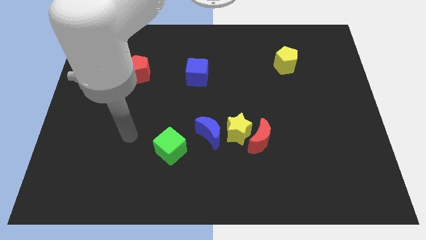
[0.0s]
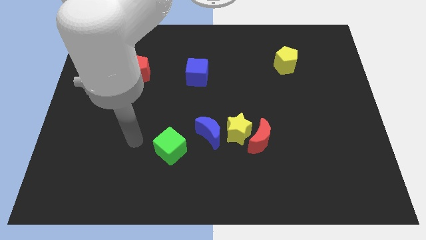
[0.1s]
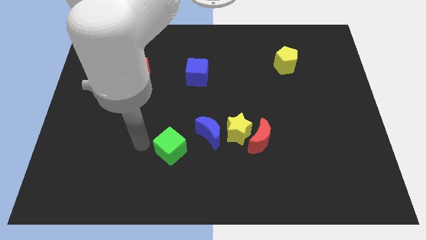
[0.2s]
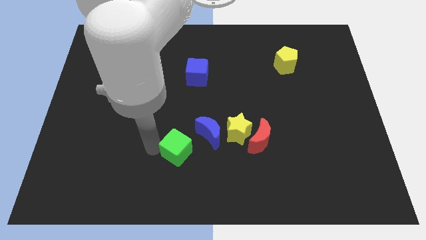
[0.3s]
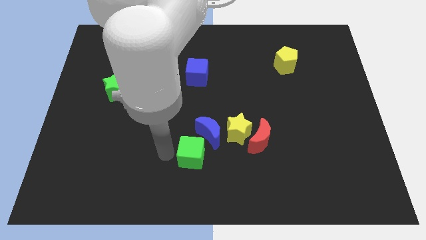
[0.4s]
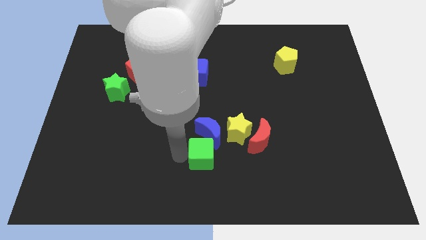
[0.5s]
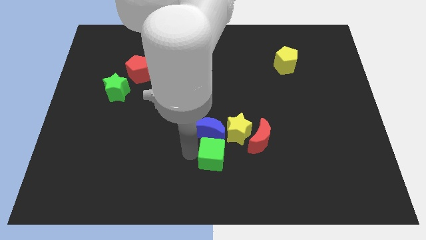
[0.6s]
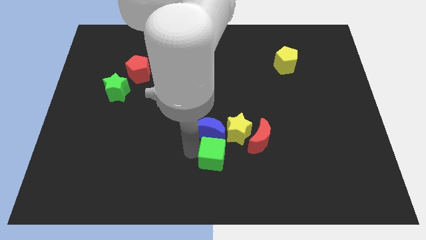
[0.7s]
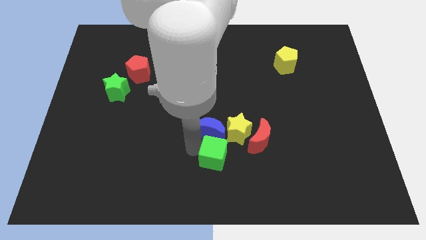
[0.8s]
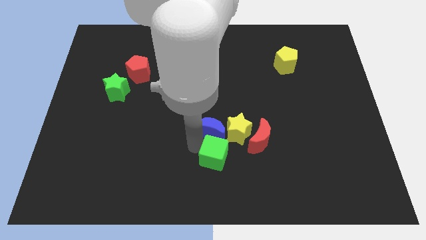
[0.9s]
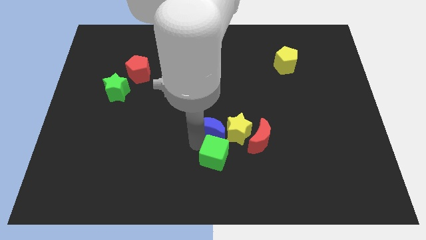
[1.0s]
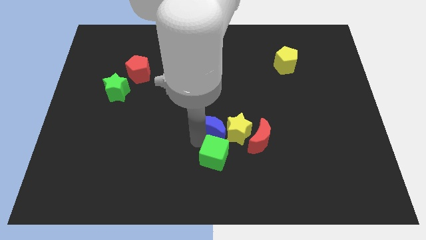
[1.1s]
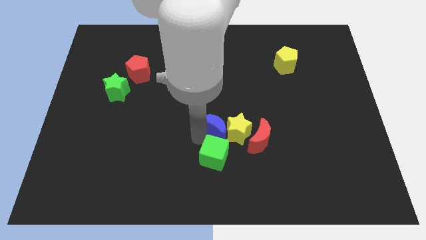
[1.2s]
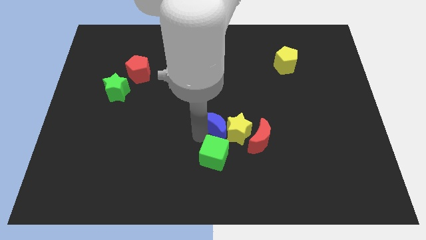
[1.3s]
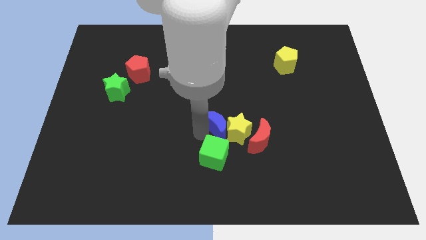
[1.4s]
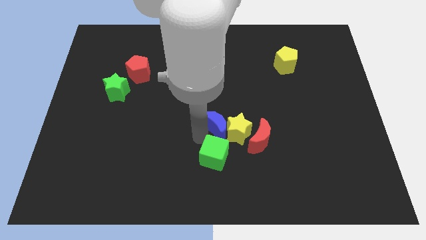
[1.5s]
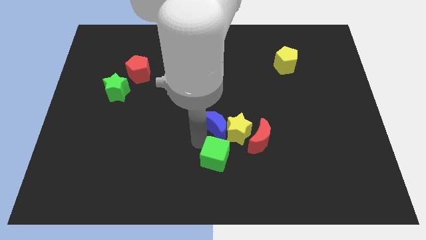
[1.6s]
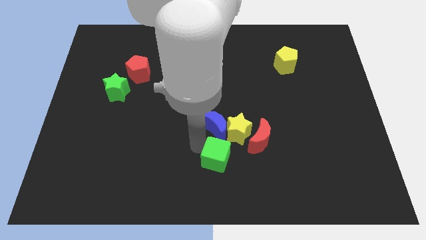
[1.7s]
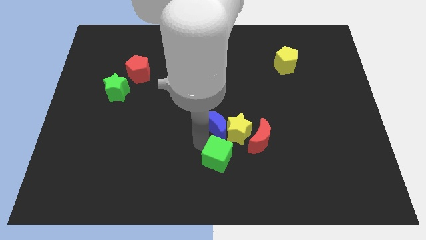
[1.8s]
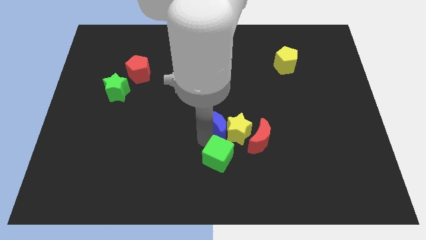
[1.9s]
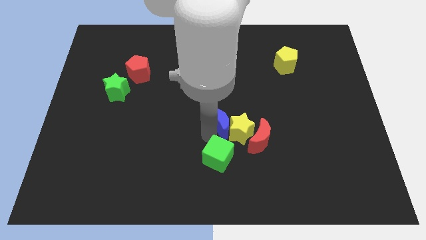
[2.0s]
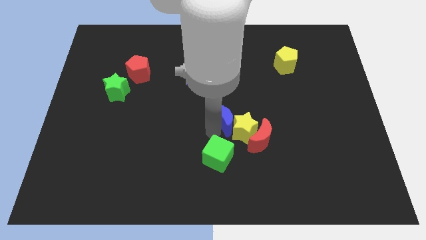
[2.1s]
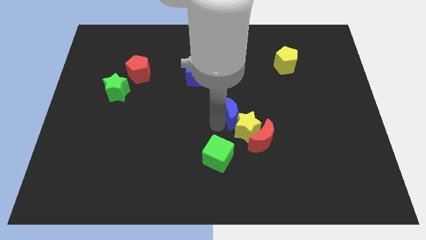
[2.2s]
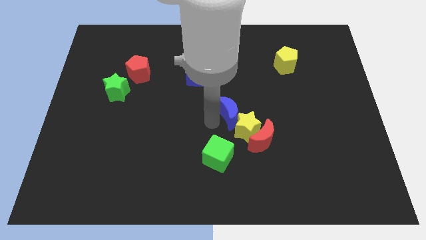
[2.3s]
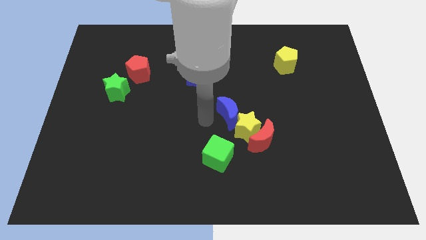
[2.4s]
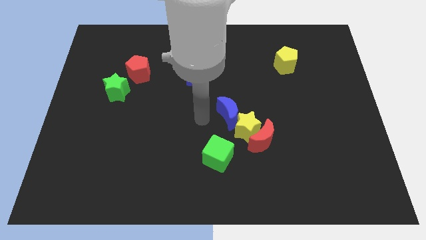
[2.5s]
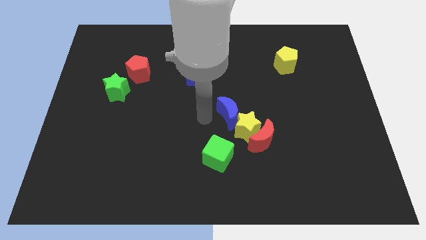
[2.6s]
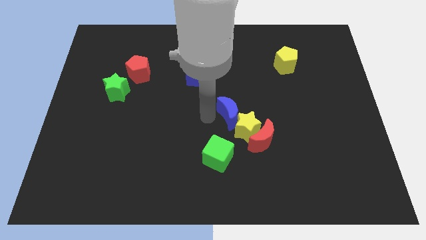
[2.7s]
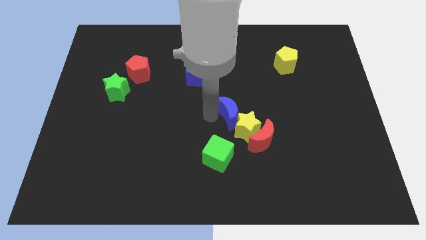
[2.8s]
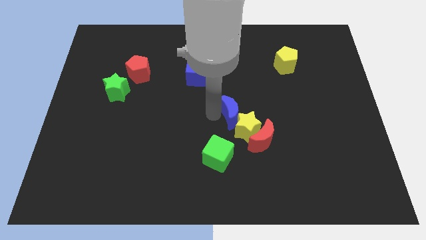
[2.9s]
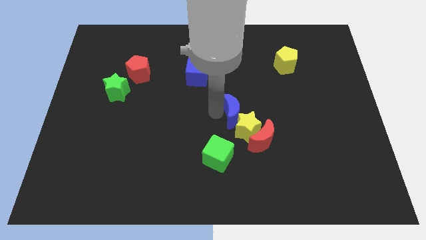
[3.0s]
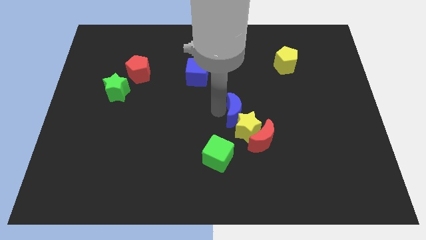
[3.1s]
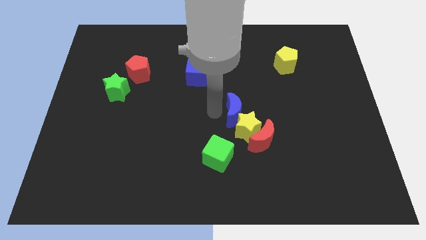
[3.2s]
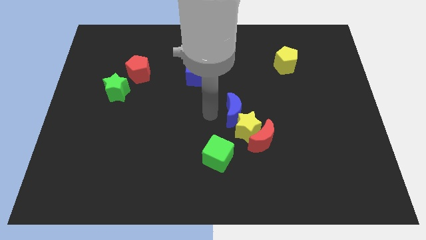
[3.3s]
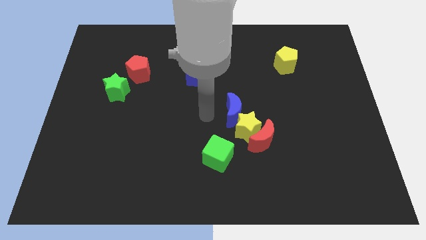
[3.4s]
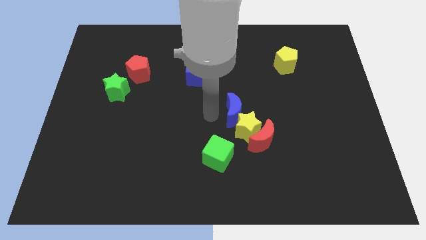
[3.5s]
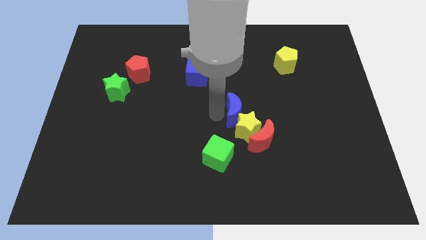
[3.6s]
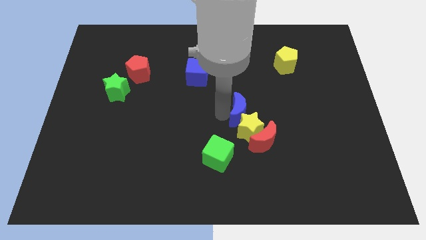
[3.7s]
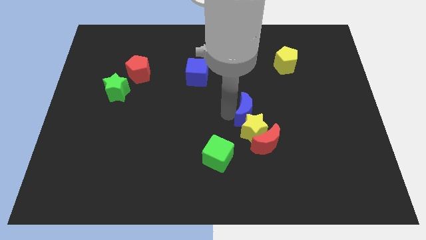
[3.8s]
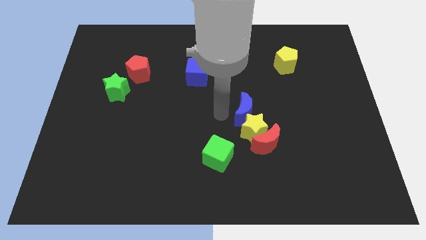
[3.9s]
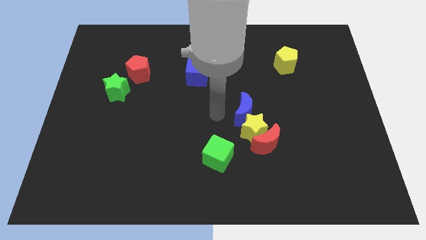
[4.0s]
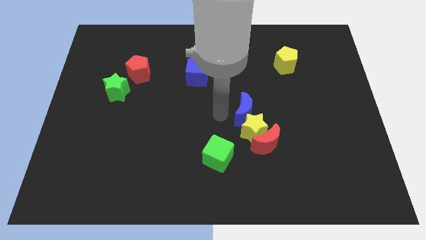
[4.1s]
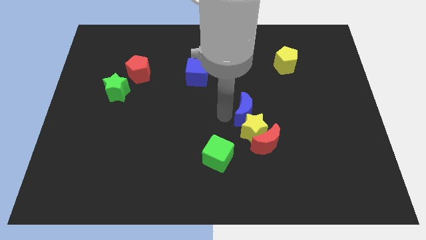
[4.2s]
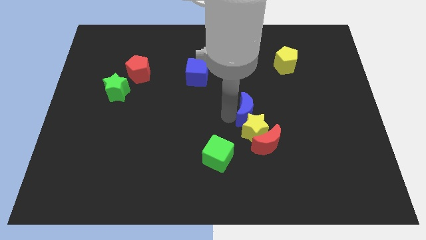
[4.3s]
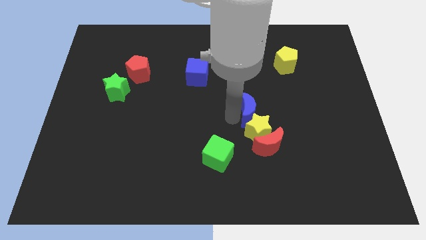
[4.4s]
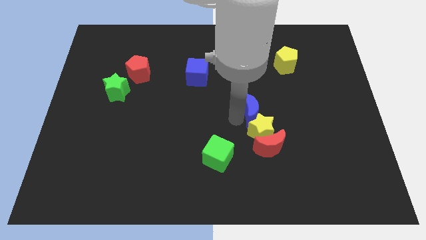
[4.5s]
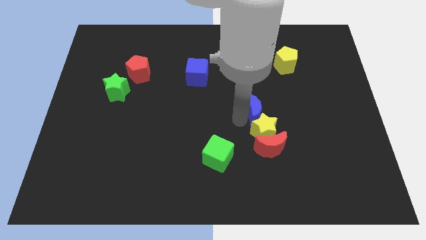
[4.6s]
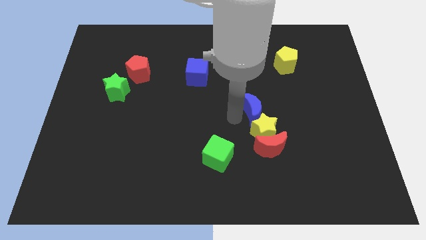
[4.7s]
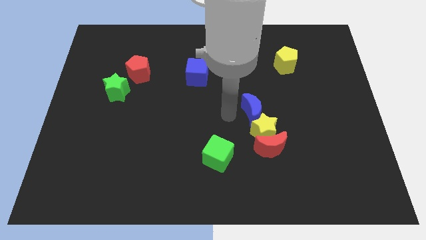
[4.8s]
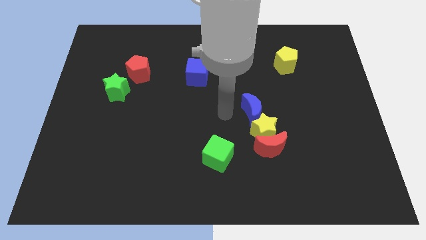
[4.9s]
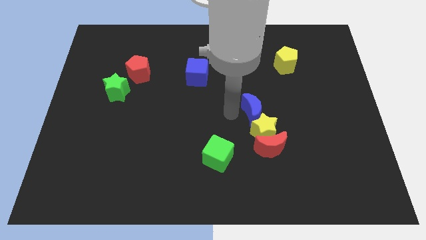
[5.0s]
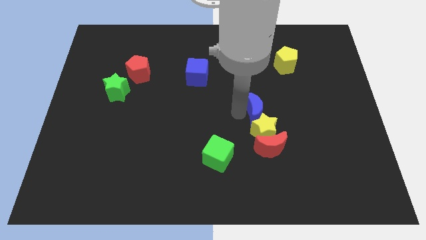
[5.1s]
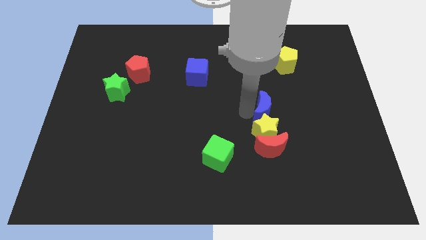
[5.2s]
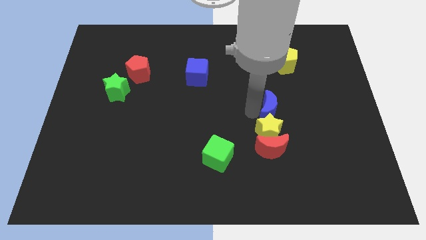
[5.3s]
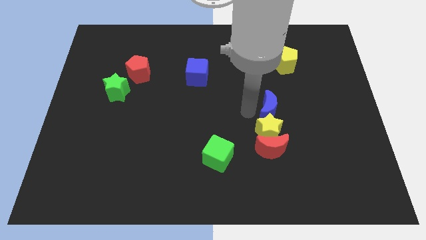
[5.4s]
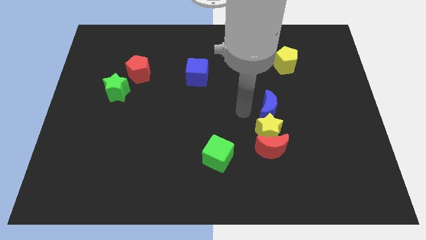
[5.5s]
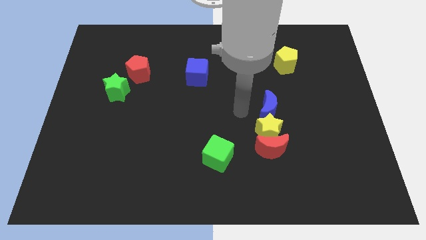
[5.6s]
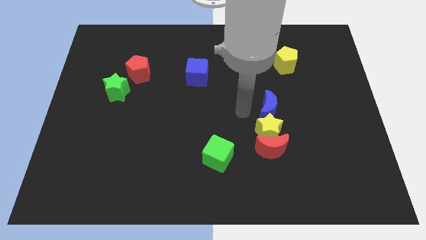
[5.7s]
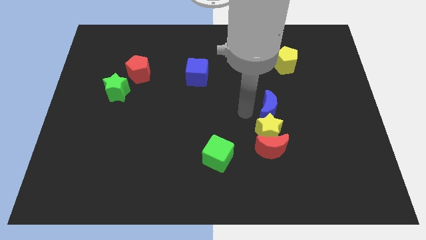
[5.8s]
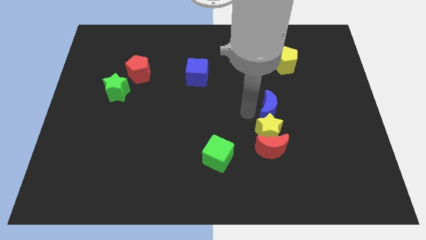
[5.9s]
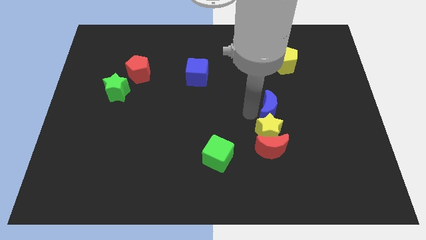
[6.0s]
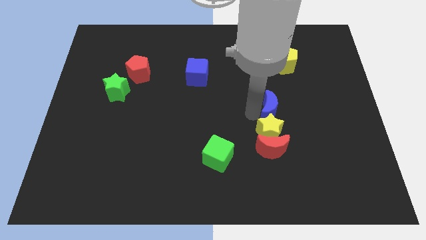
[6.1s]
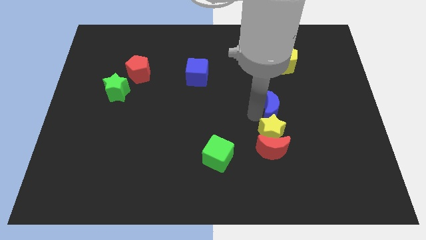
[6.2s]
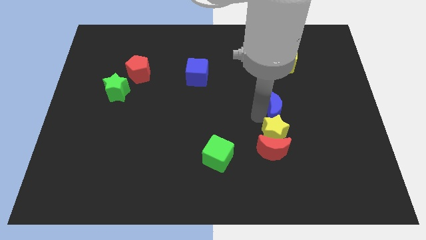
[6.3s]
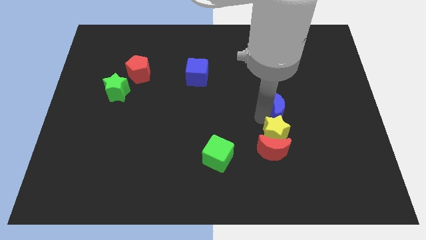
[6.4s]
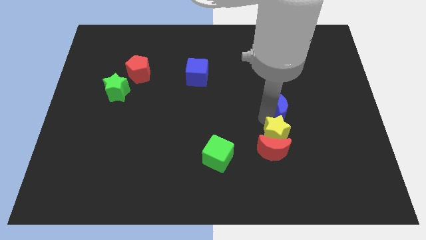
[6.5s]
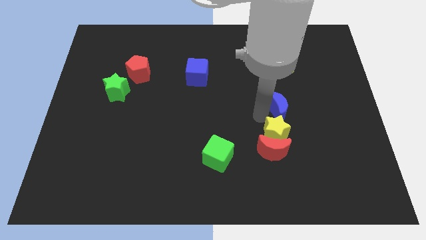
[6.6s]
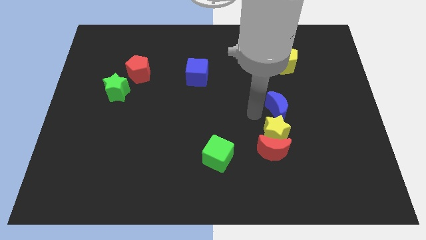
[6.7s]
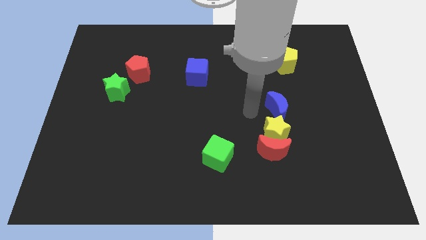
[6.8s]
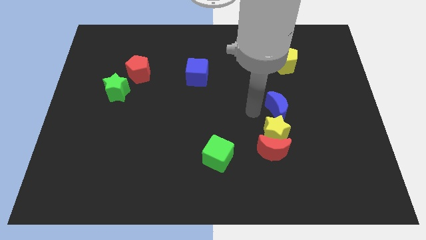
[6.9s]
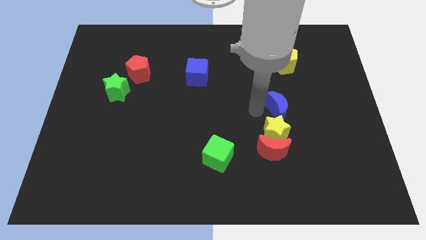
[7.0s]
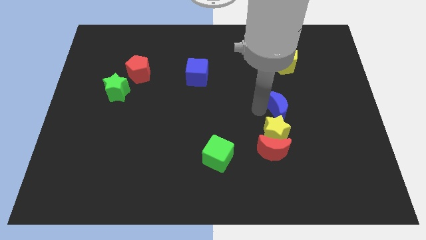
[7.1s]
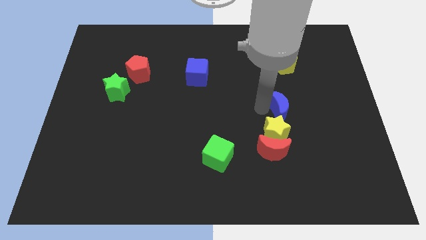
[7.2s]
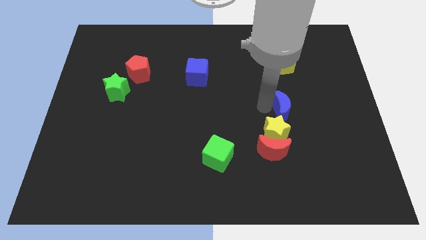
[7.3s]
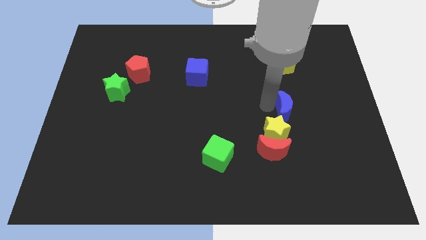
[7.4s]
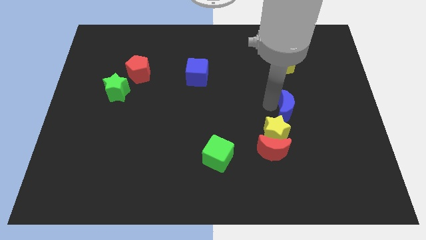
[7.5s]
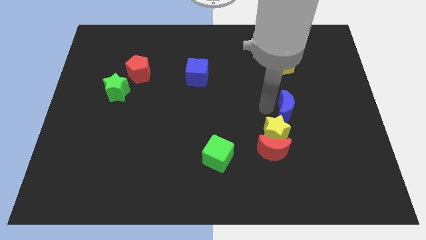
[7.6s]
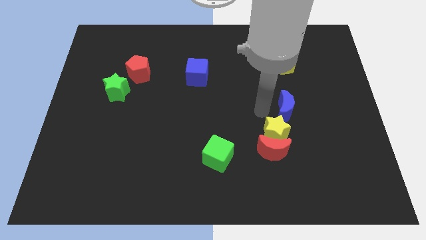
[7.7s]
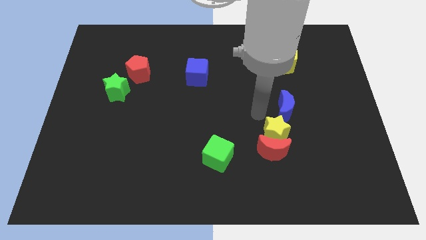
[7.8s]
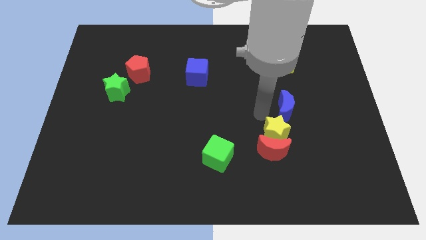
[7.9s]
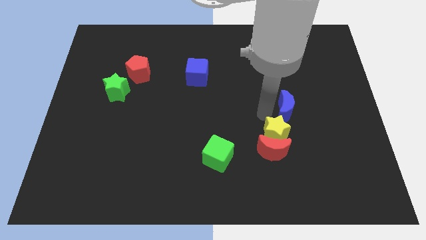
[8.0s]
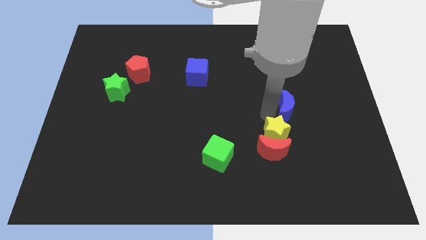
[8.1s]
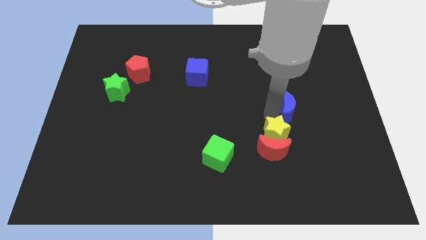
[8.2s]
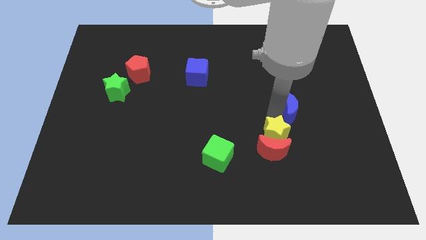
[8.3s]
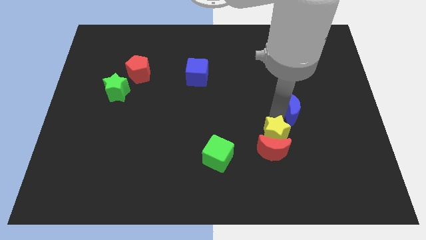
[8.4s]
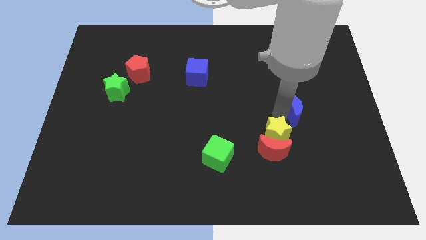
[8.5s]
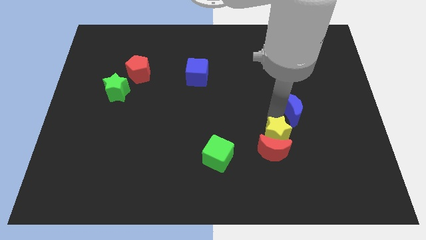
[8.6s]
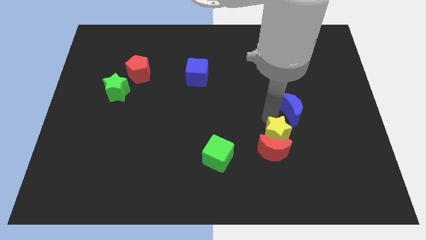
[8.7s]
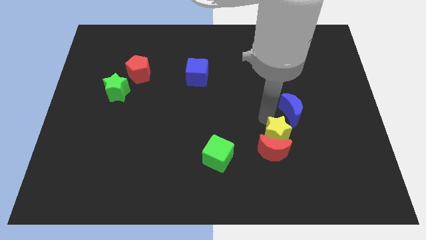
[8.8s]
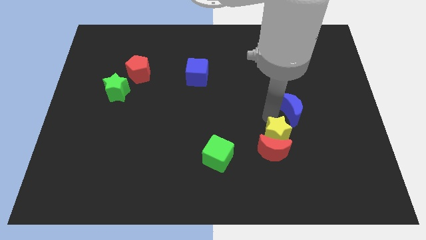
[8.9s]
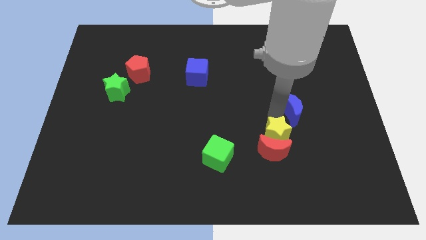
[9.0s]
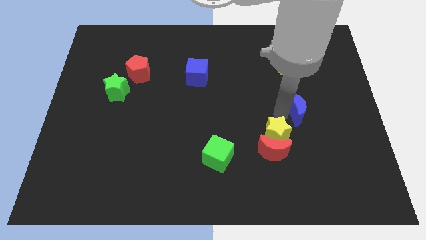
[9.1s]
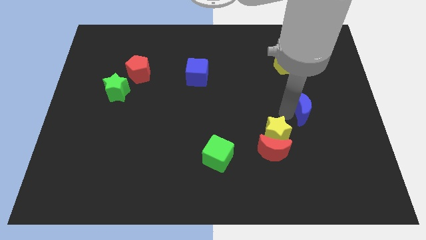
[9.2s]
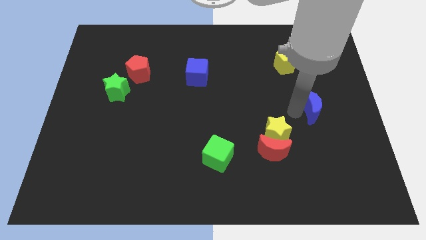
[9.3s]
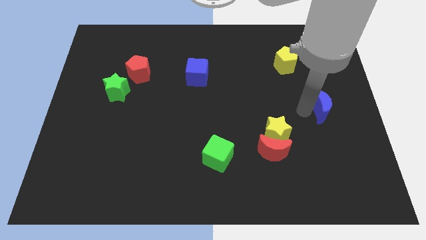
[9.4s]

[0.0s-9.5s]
move the blue moon to the center right
